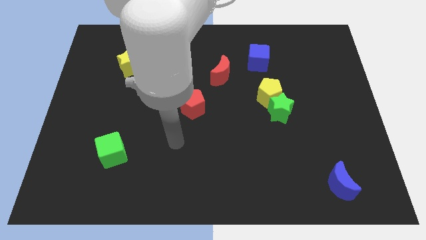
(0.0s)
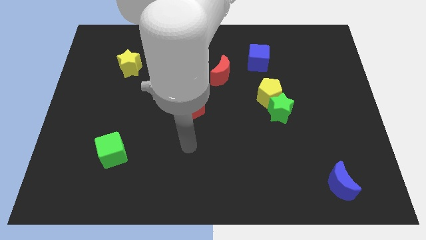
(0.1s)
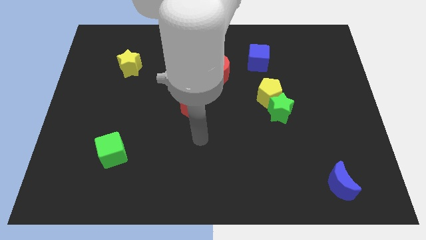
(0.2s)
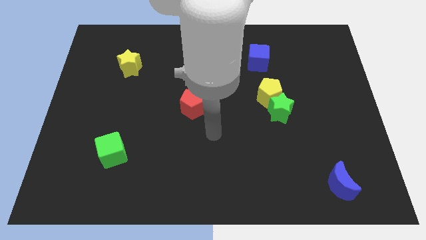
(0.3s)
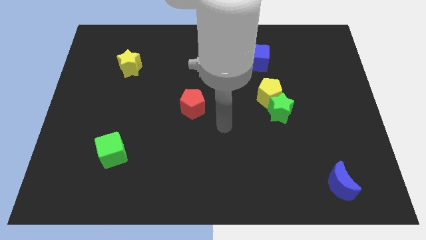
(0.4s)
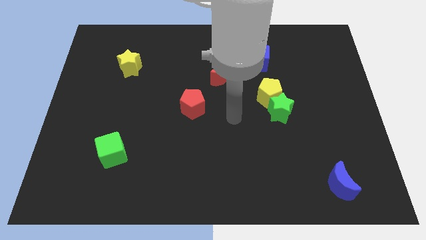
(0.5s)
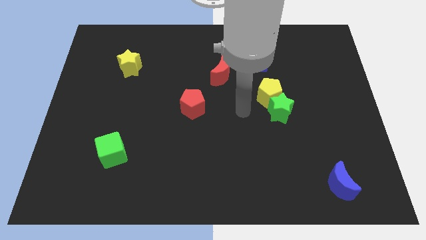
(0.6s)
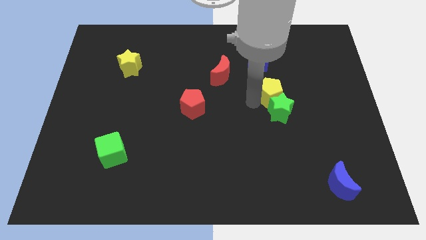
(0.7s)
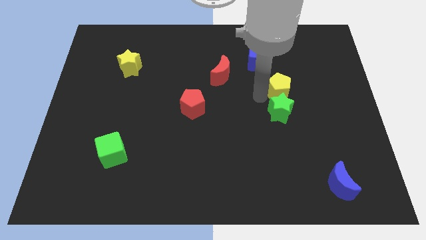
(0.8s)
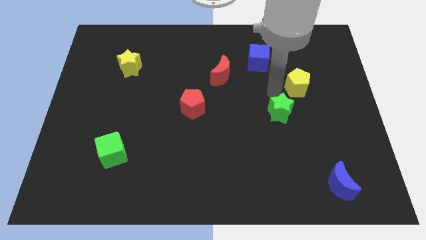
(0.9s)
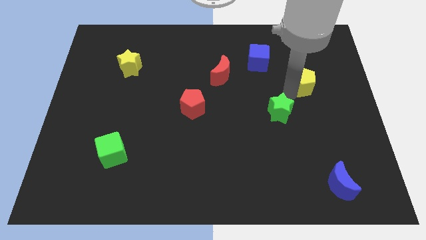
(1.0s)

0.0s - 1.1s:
pull the green star apart from the yellow pentagon

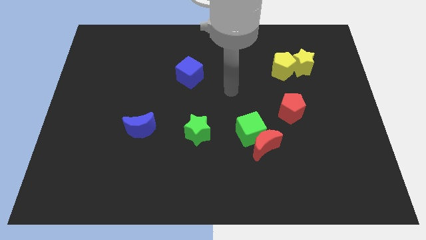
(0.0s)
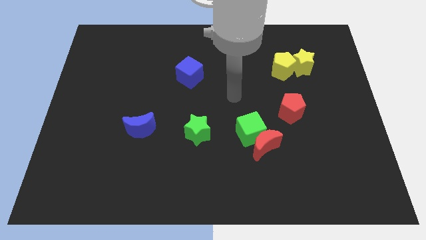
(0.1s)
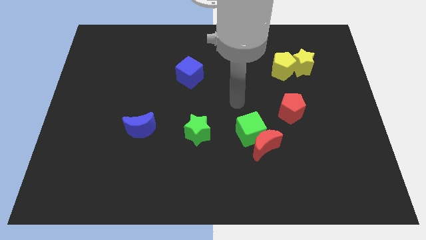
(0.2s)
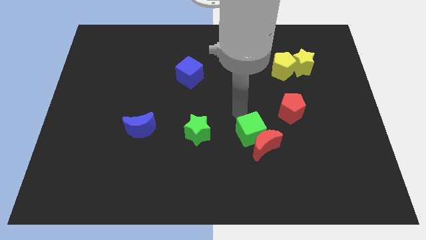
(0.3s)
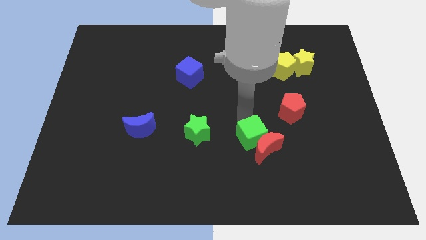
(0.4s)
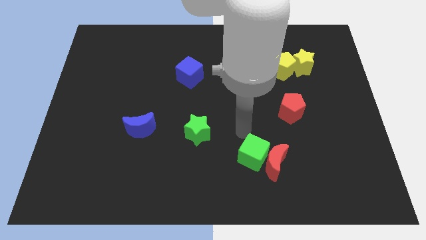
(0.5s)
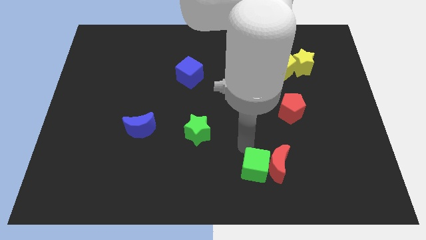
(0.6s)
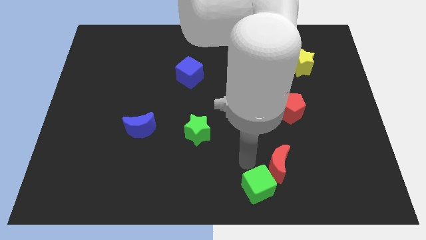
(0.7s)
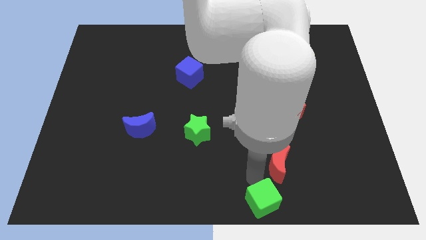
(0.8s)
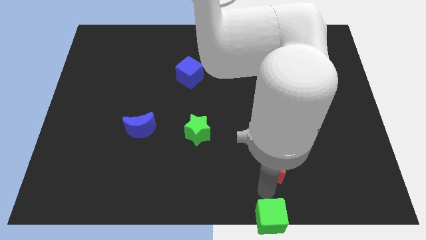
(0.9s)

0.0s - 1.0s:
move the red moon away from the green cube

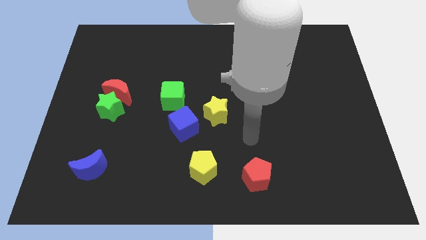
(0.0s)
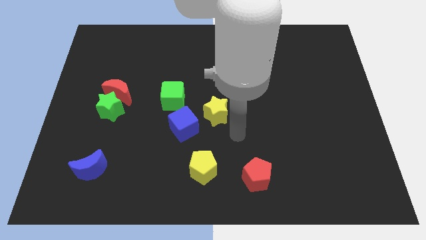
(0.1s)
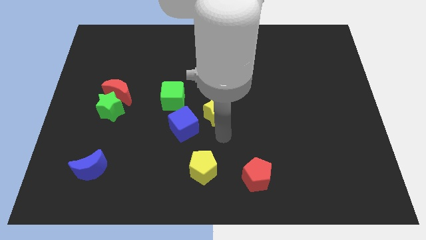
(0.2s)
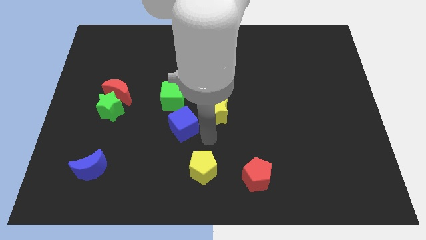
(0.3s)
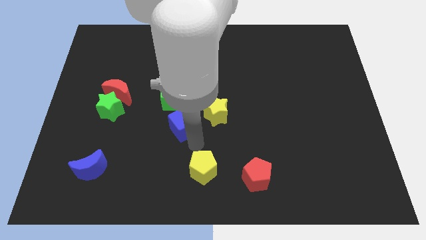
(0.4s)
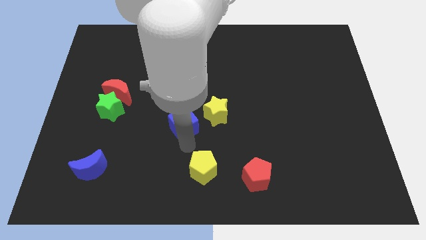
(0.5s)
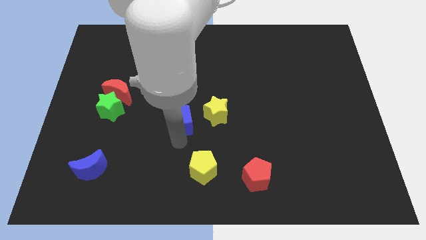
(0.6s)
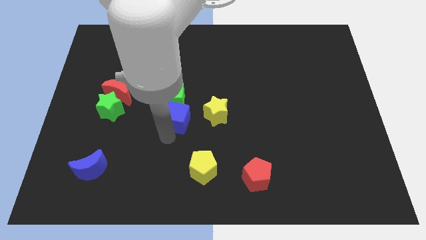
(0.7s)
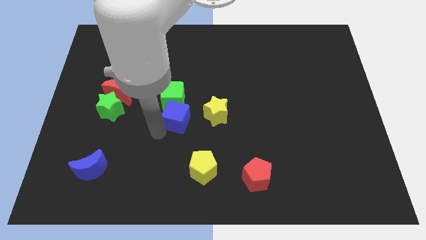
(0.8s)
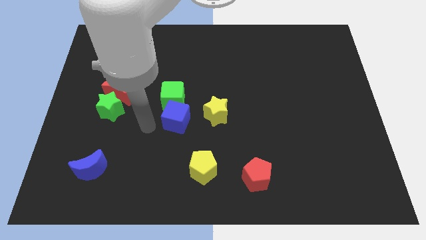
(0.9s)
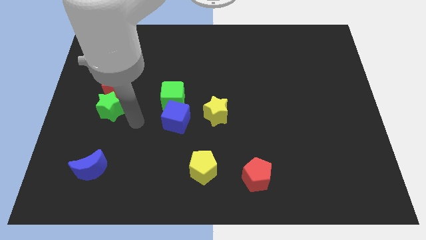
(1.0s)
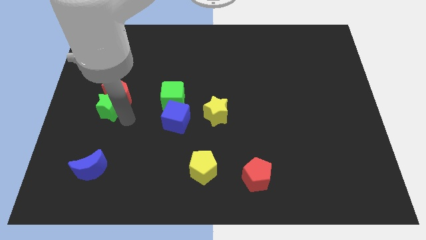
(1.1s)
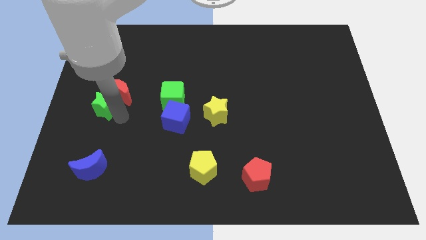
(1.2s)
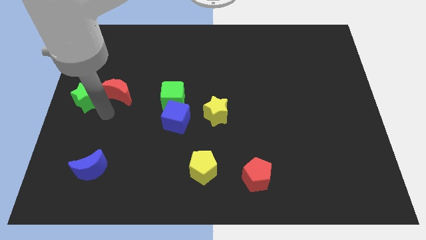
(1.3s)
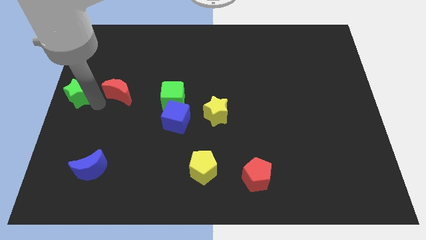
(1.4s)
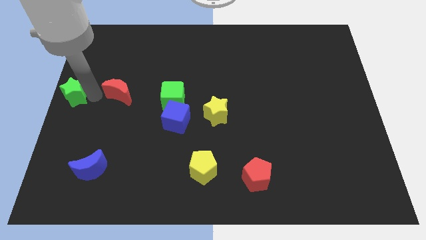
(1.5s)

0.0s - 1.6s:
pull the red moon apart from the green star

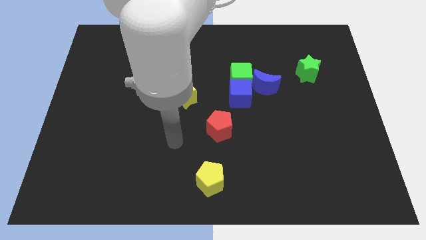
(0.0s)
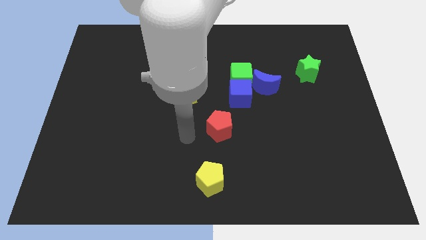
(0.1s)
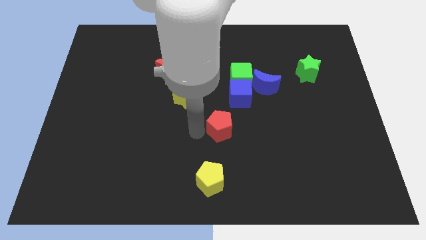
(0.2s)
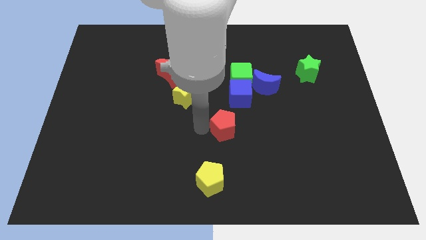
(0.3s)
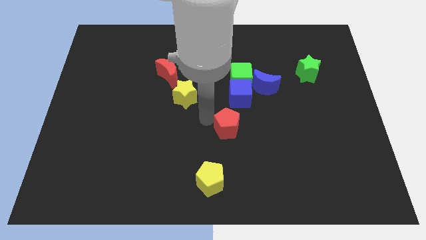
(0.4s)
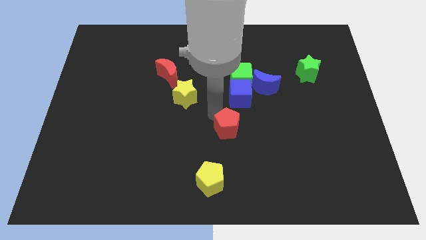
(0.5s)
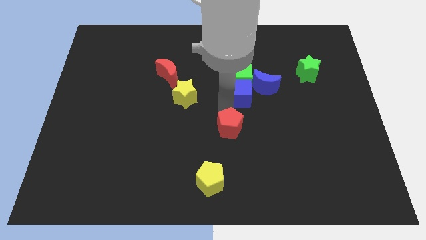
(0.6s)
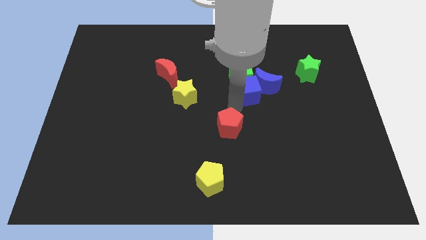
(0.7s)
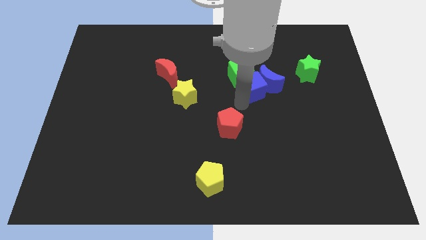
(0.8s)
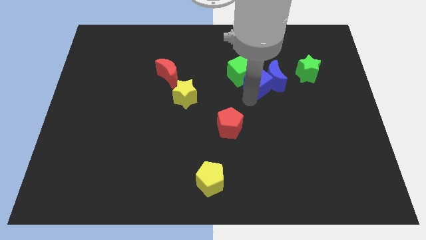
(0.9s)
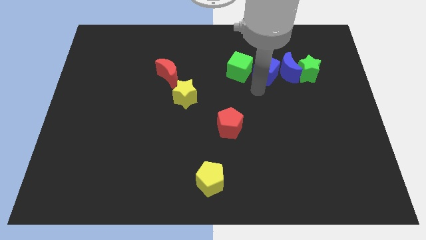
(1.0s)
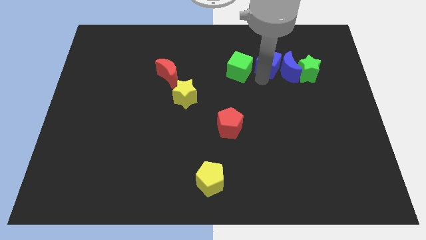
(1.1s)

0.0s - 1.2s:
separate the green cube from the blue cube and blue moon

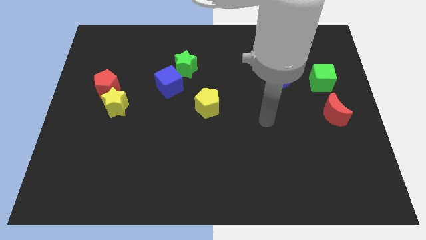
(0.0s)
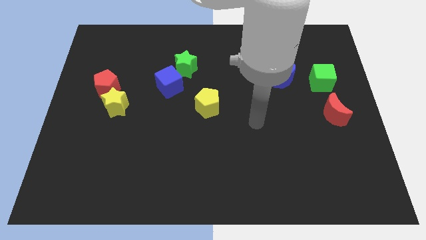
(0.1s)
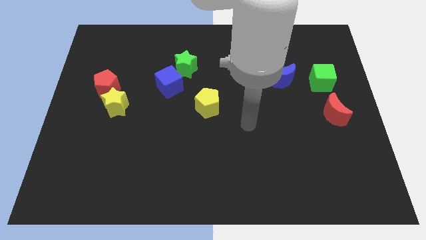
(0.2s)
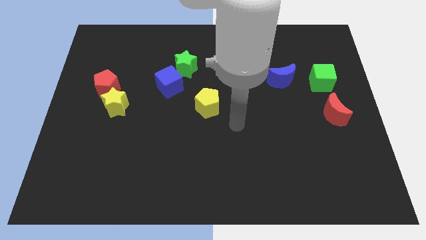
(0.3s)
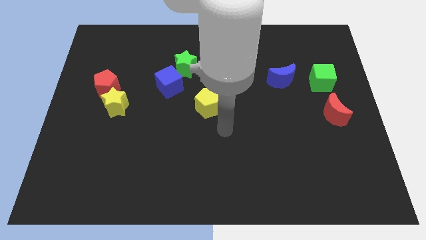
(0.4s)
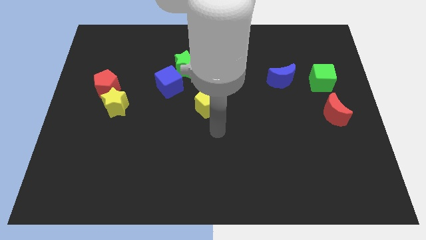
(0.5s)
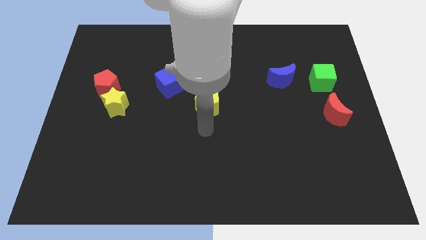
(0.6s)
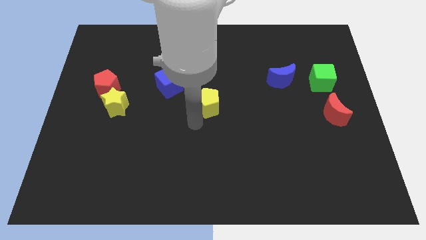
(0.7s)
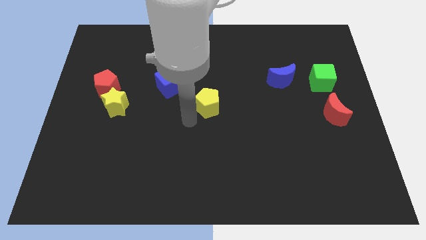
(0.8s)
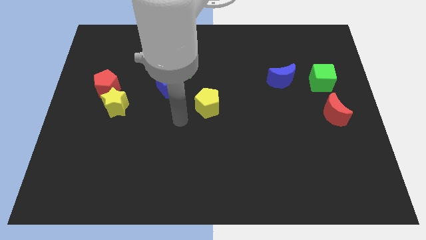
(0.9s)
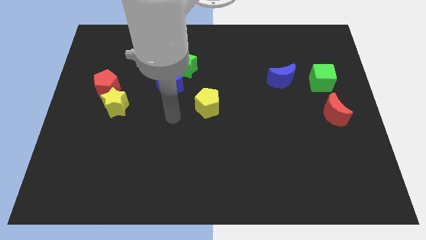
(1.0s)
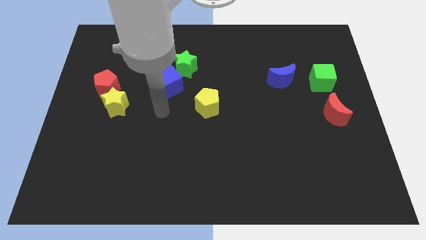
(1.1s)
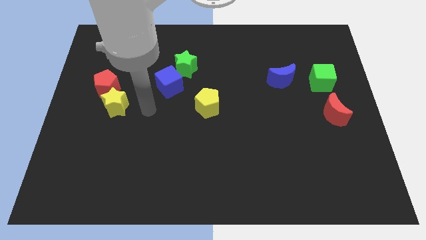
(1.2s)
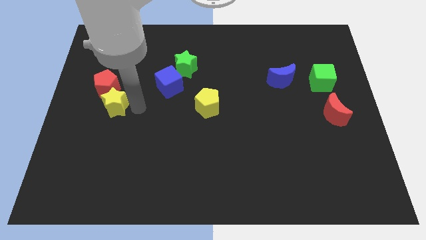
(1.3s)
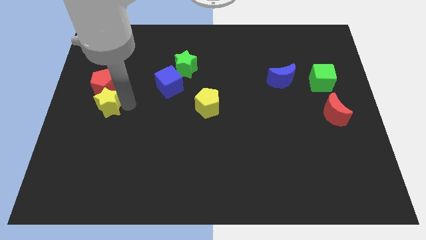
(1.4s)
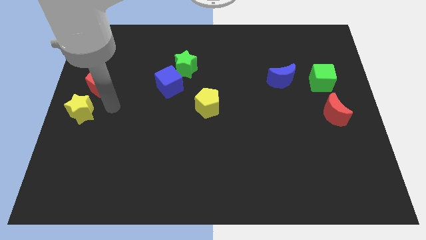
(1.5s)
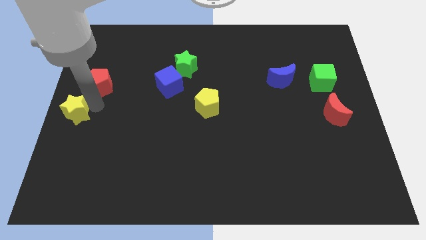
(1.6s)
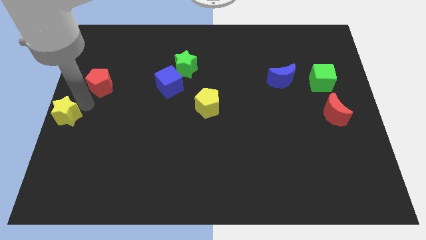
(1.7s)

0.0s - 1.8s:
pull the red pentagon apart from the yellow star

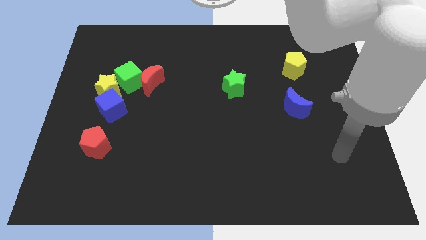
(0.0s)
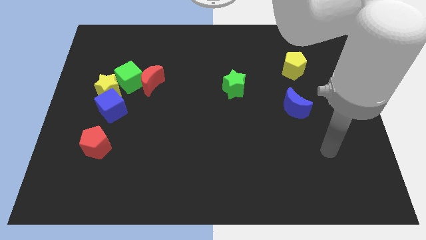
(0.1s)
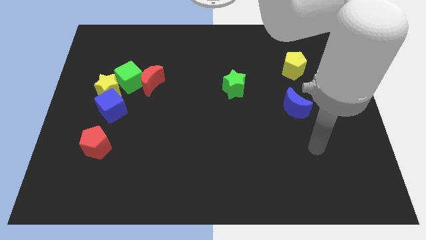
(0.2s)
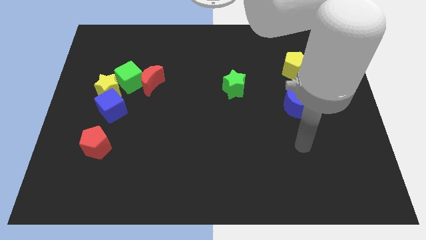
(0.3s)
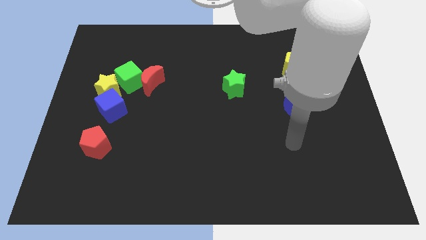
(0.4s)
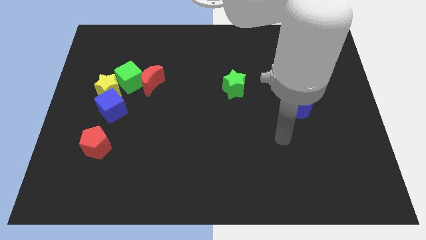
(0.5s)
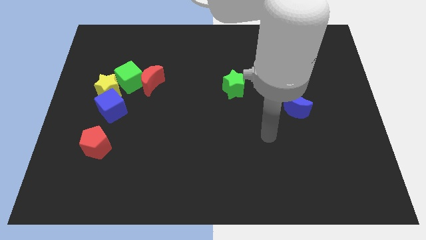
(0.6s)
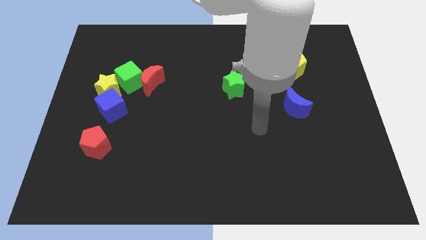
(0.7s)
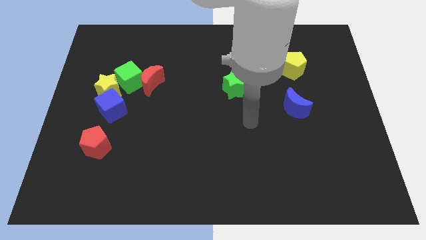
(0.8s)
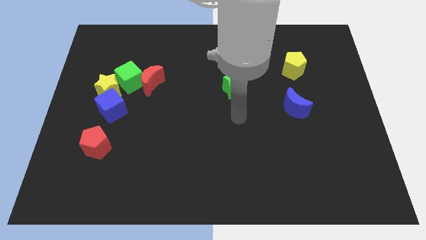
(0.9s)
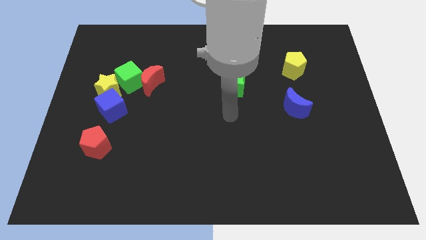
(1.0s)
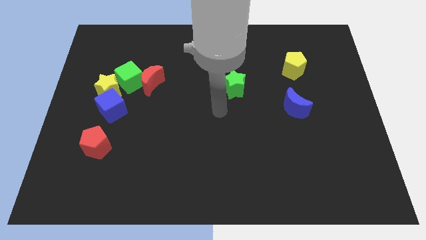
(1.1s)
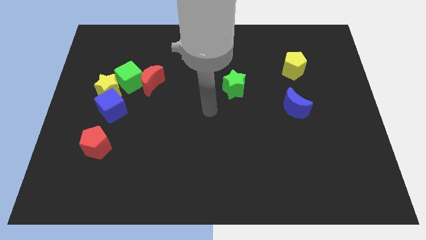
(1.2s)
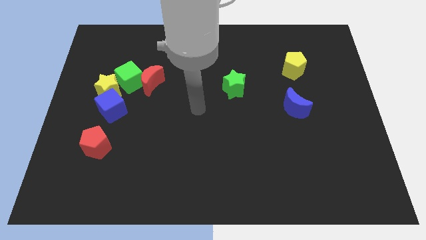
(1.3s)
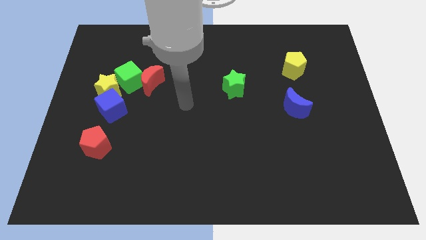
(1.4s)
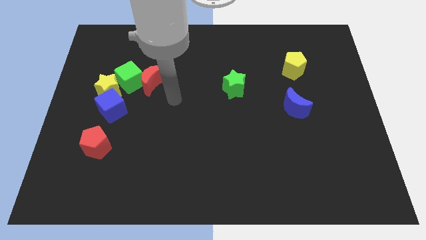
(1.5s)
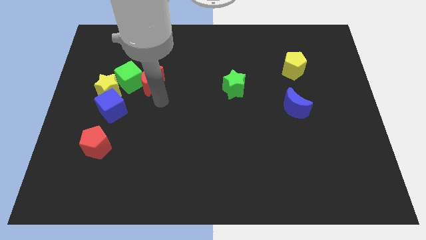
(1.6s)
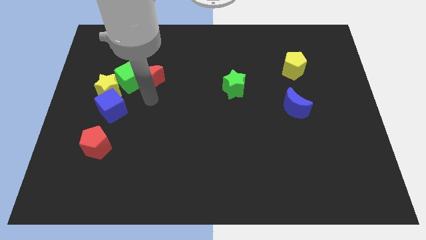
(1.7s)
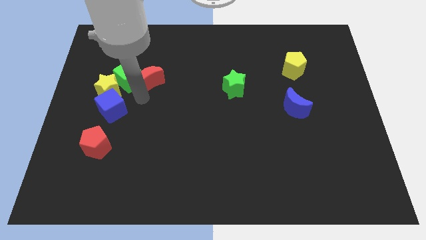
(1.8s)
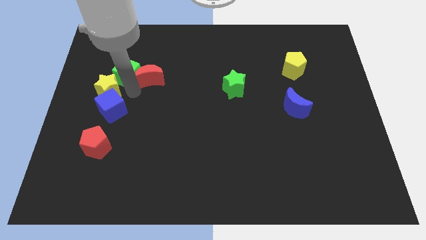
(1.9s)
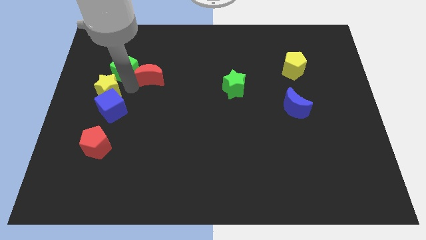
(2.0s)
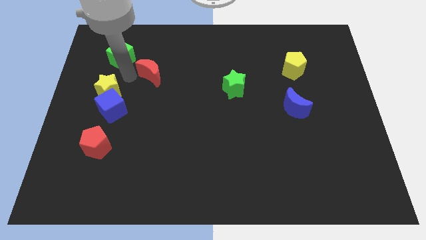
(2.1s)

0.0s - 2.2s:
pull the red moon apart from the green cube

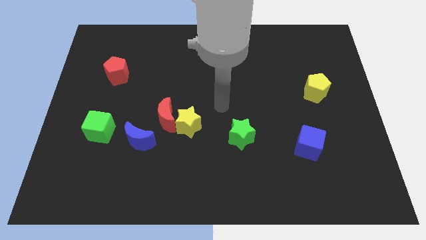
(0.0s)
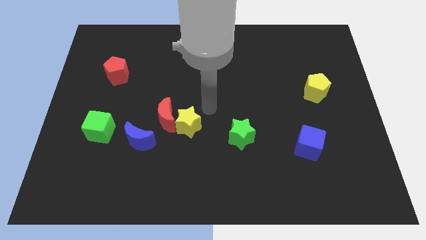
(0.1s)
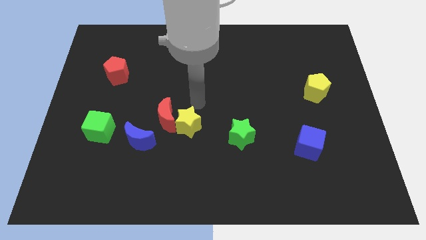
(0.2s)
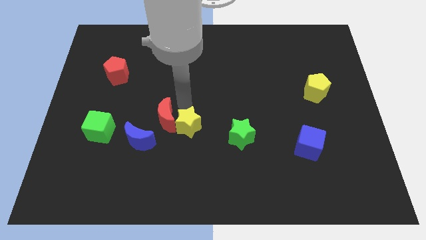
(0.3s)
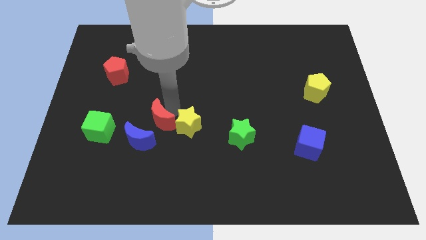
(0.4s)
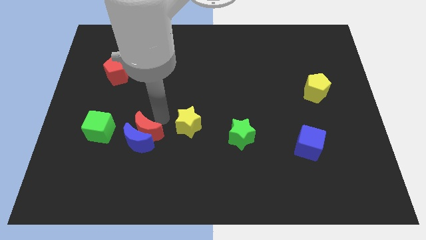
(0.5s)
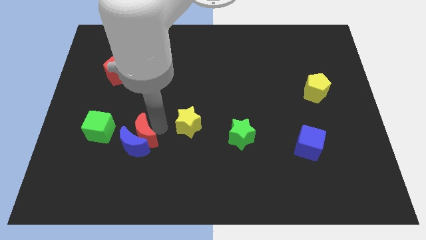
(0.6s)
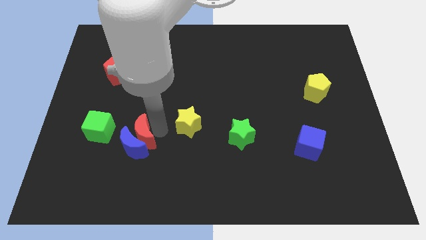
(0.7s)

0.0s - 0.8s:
pull the yellow star apart from the red moon
